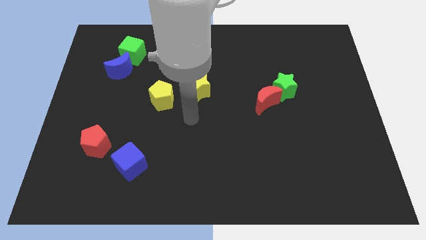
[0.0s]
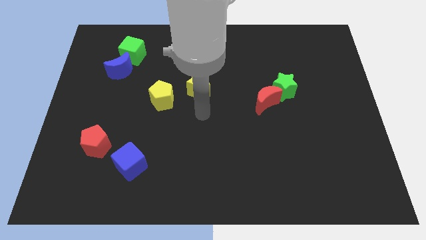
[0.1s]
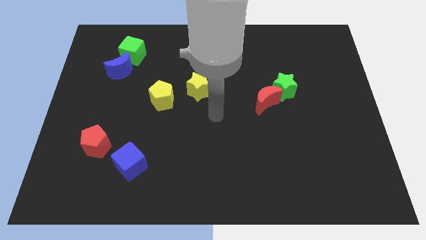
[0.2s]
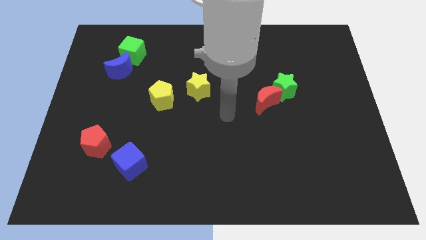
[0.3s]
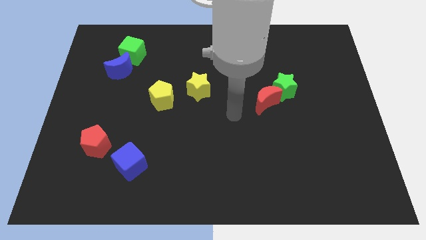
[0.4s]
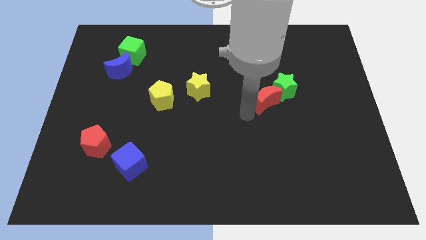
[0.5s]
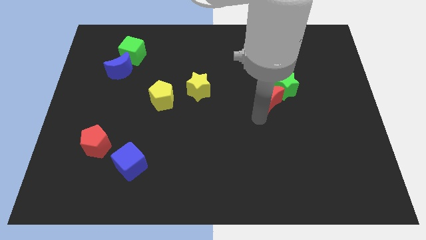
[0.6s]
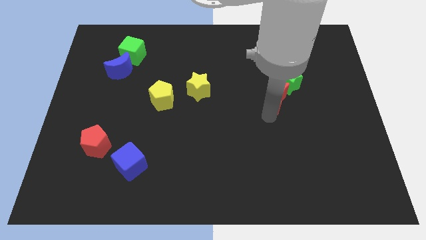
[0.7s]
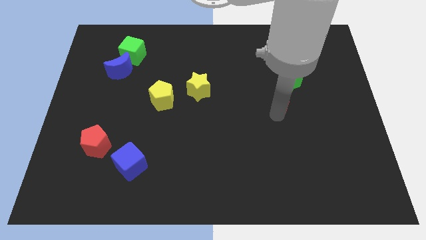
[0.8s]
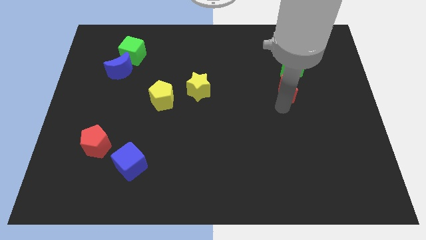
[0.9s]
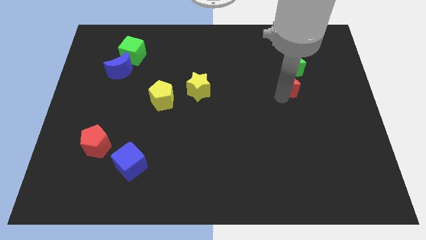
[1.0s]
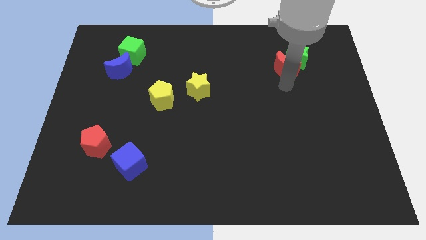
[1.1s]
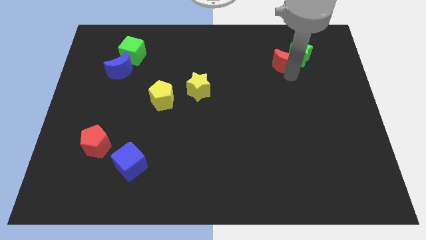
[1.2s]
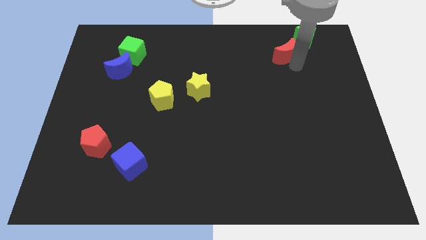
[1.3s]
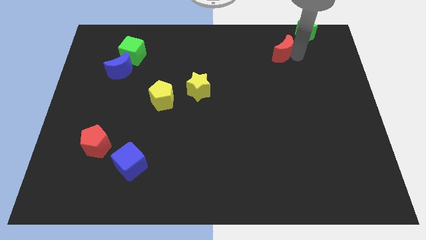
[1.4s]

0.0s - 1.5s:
move the red moon away from the green star

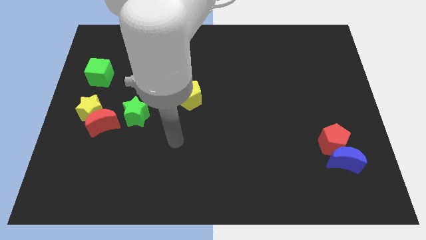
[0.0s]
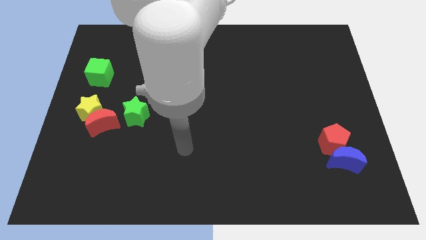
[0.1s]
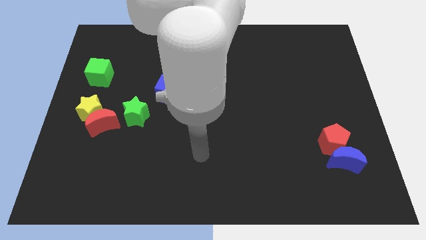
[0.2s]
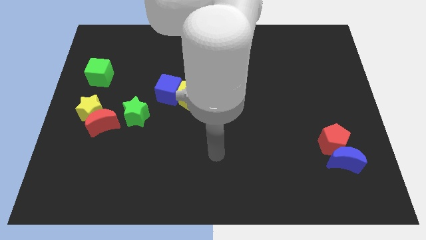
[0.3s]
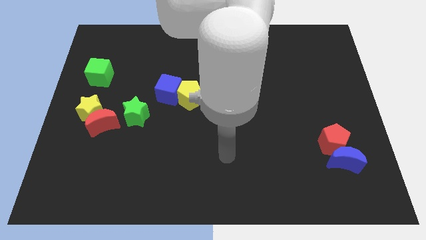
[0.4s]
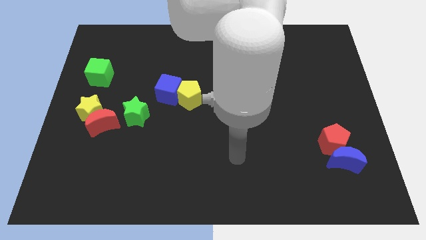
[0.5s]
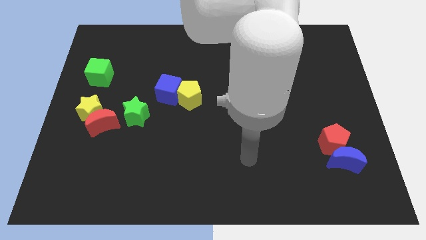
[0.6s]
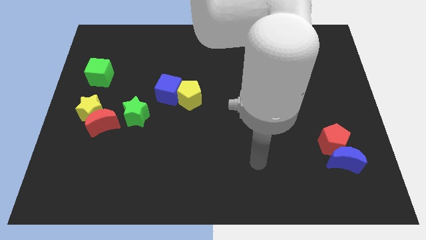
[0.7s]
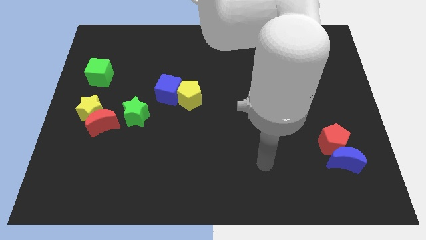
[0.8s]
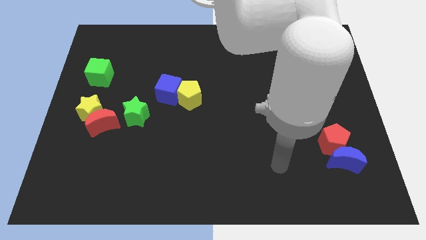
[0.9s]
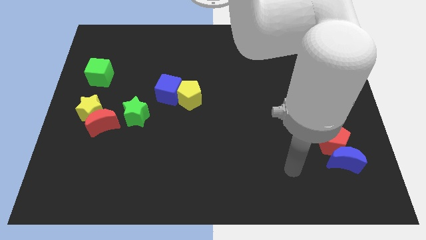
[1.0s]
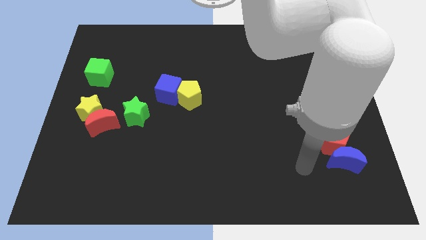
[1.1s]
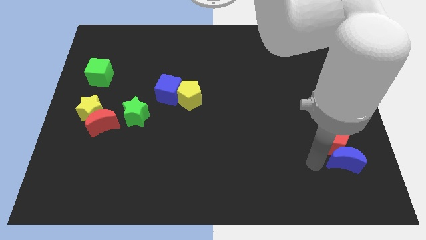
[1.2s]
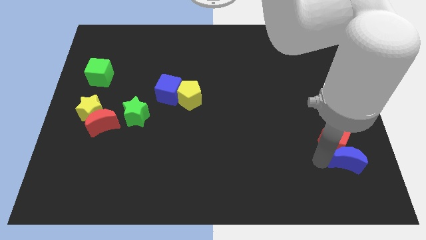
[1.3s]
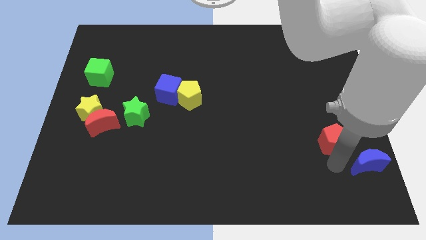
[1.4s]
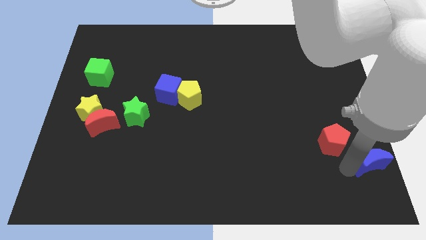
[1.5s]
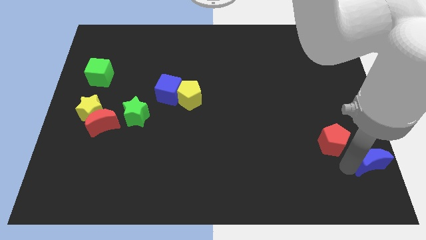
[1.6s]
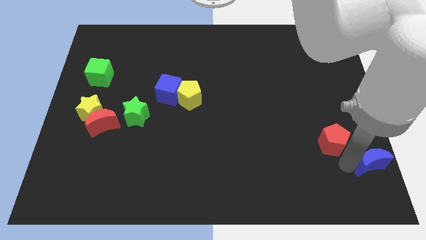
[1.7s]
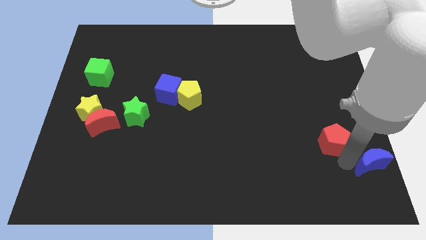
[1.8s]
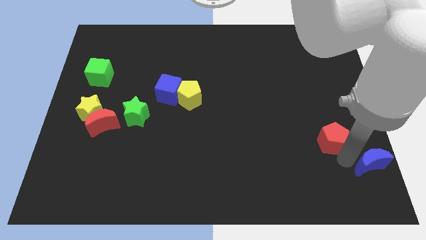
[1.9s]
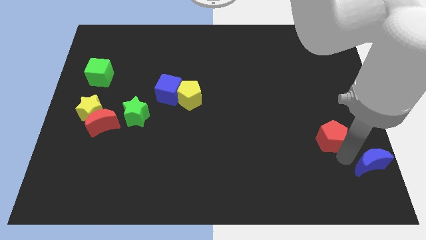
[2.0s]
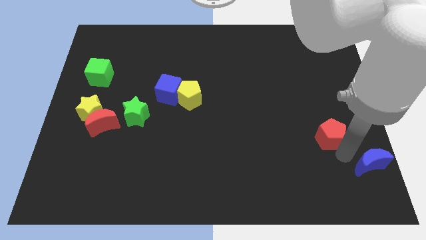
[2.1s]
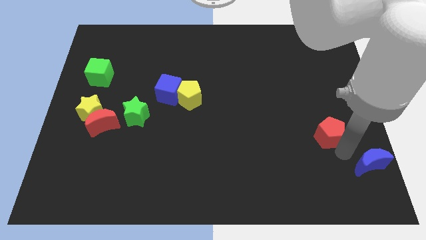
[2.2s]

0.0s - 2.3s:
pull the red pentagon apart from the blue moon

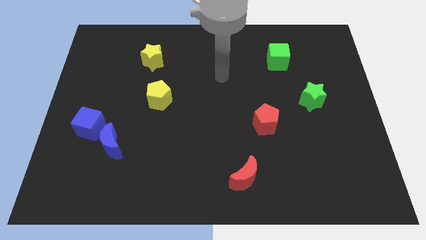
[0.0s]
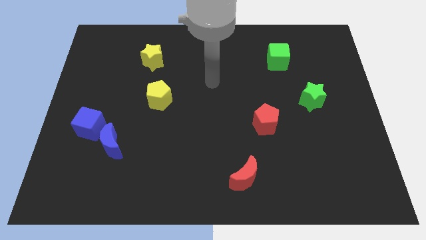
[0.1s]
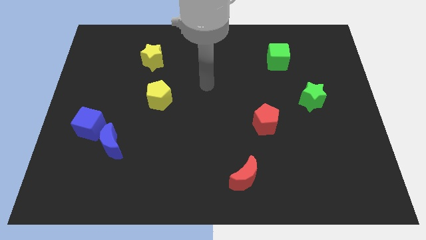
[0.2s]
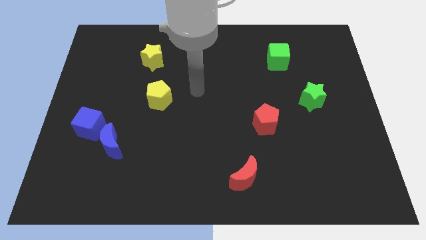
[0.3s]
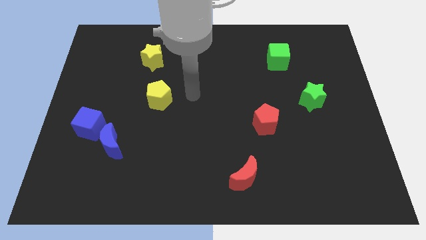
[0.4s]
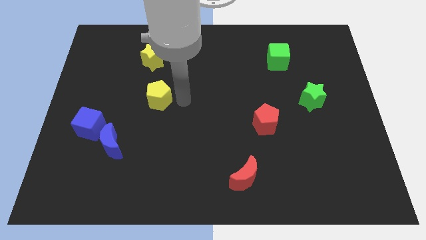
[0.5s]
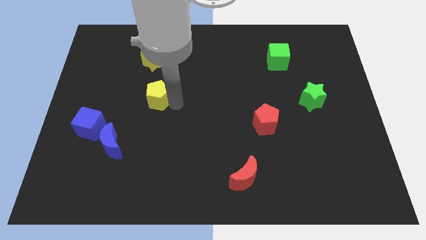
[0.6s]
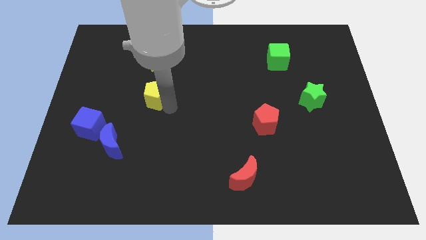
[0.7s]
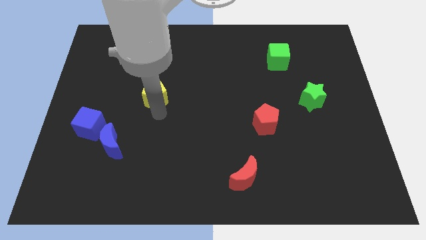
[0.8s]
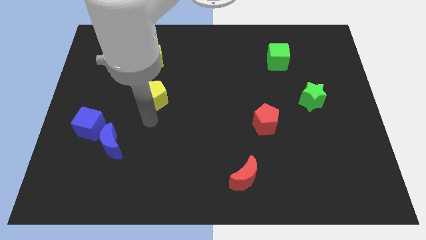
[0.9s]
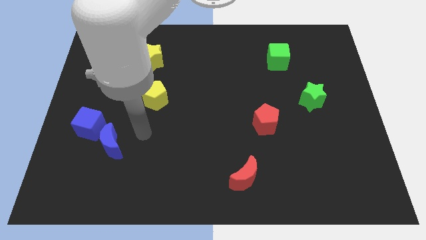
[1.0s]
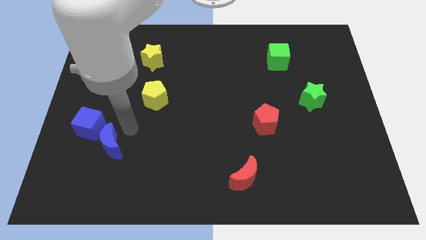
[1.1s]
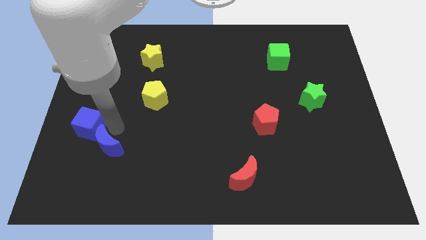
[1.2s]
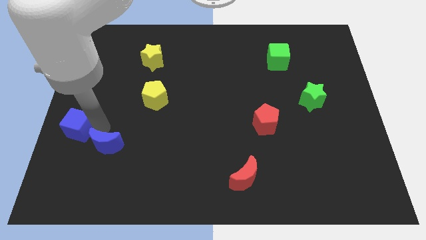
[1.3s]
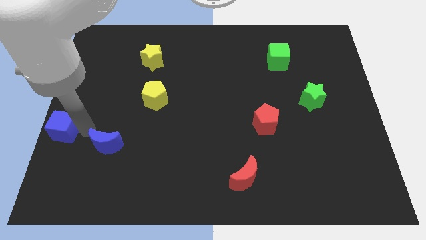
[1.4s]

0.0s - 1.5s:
move the blue moon away from the blue cube

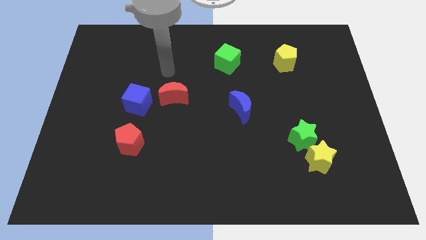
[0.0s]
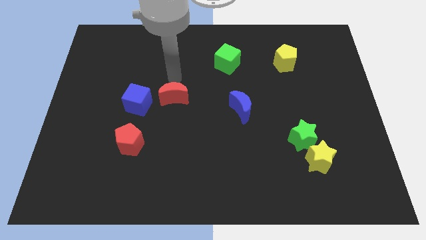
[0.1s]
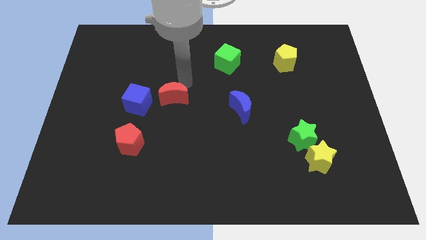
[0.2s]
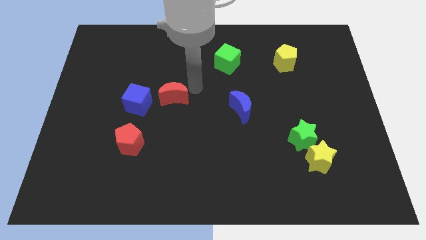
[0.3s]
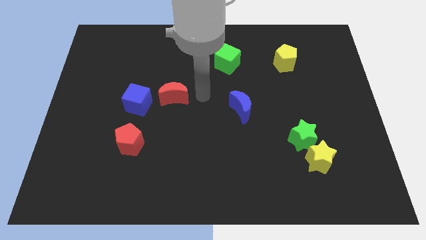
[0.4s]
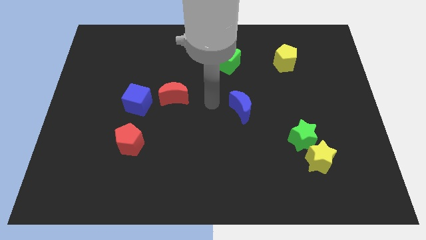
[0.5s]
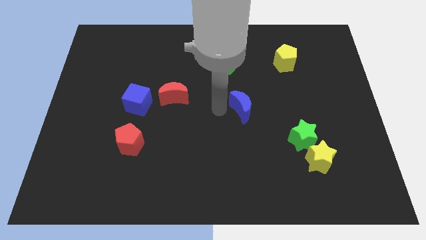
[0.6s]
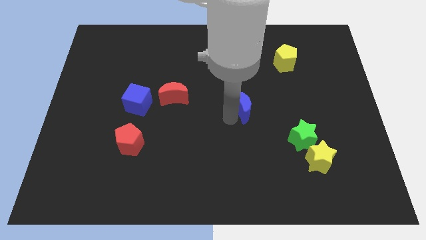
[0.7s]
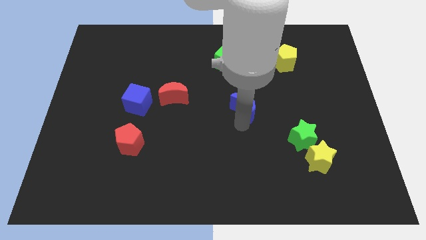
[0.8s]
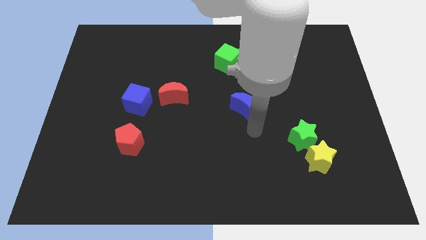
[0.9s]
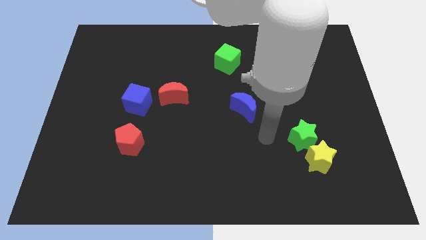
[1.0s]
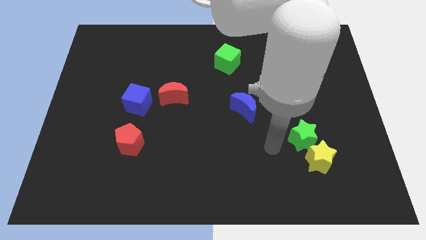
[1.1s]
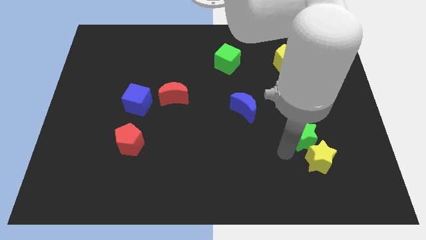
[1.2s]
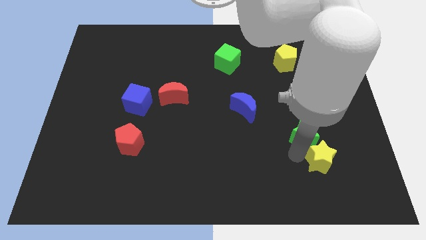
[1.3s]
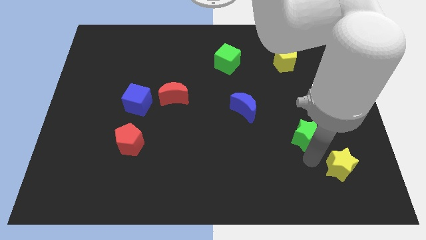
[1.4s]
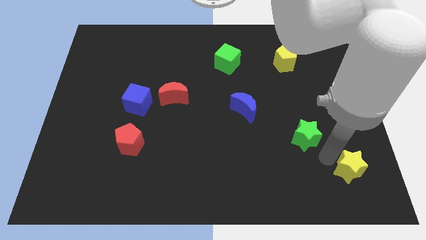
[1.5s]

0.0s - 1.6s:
pull the green star apart from the yellow star

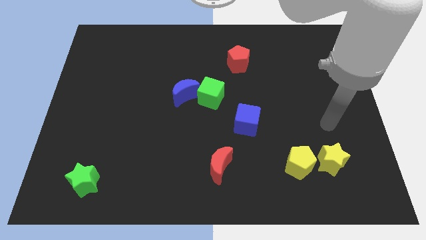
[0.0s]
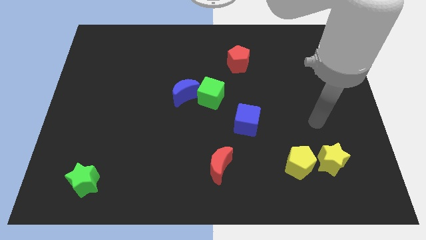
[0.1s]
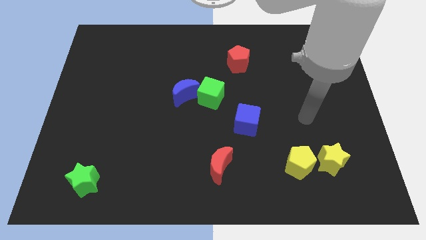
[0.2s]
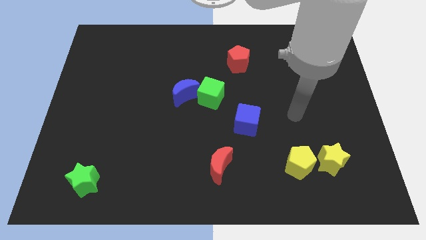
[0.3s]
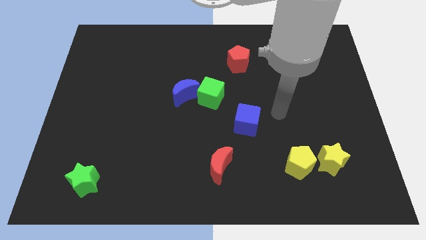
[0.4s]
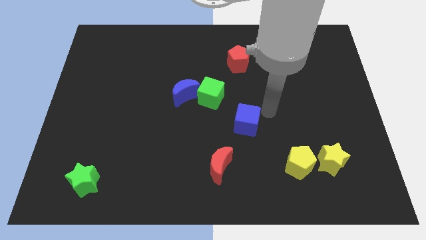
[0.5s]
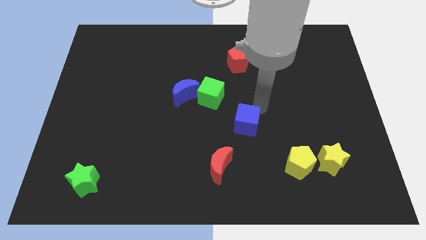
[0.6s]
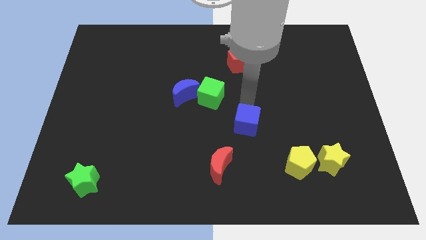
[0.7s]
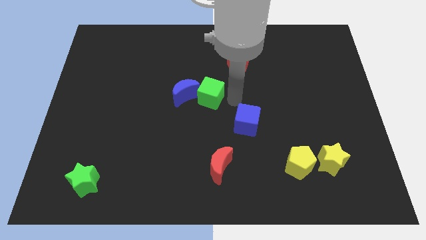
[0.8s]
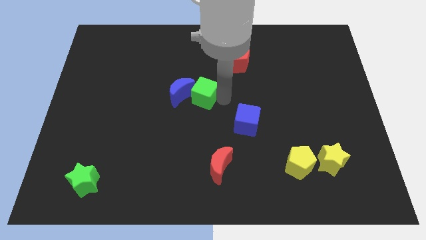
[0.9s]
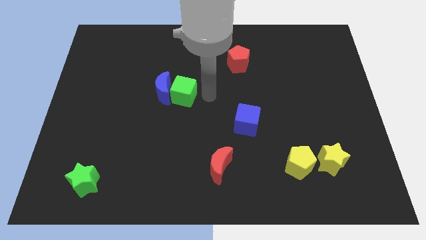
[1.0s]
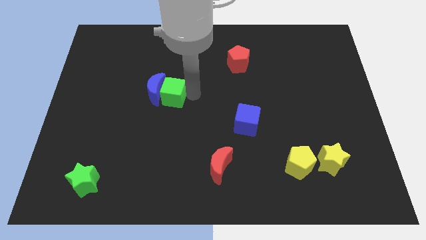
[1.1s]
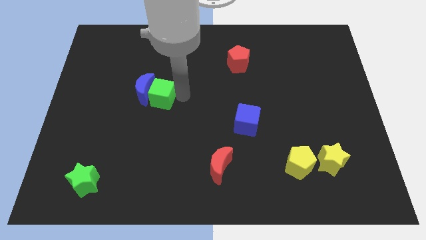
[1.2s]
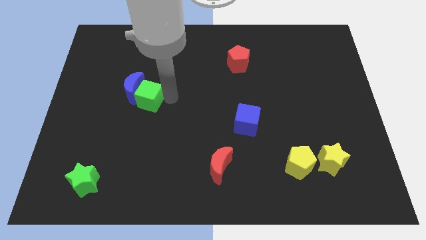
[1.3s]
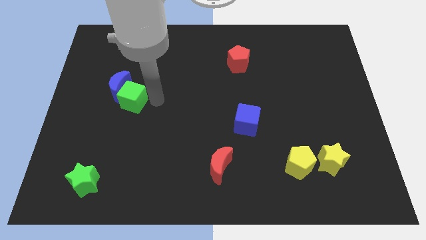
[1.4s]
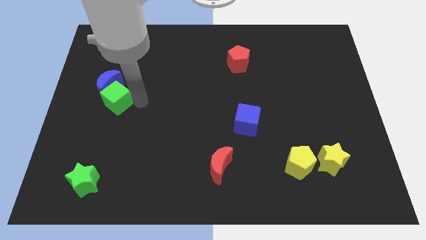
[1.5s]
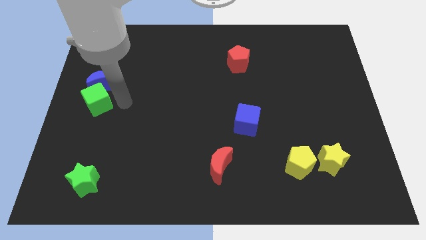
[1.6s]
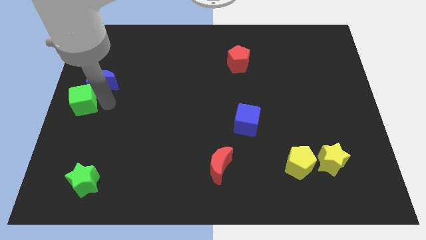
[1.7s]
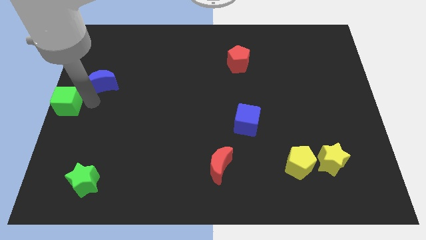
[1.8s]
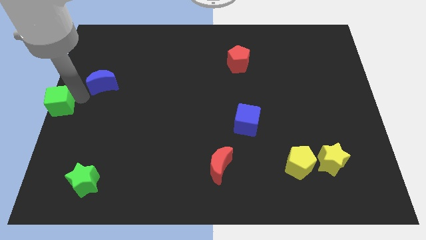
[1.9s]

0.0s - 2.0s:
move the blue moon away from the green cube

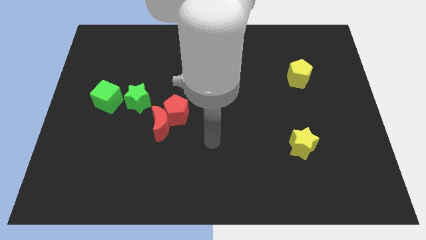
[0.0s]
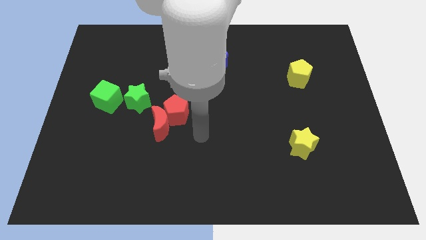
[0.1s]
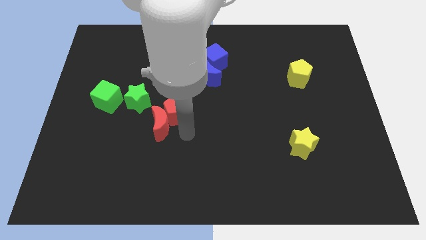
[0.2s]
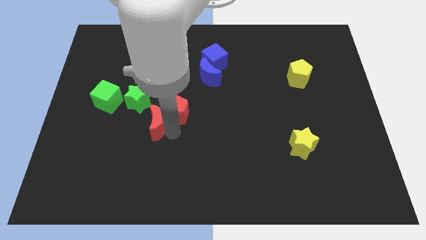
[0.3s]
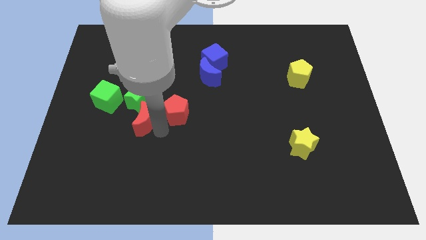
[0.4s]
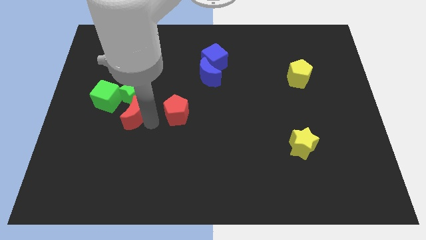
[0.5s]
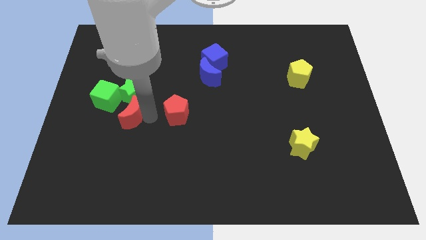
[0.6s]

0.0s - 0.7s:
pull the red pentagon apart from the red moon
